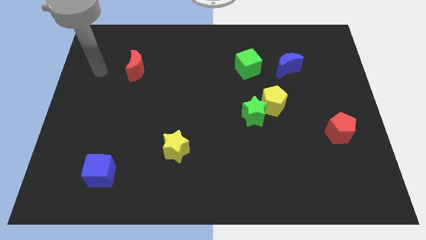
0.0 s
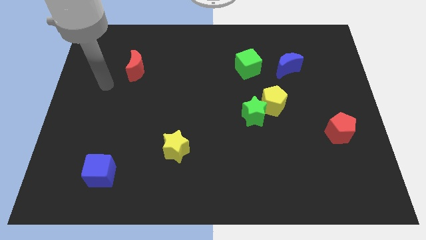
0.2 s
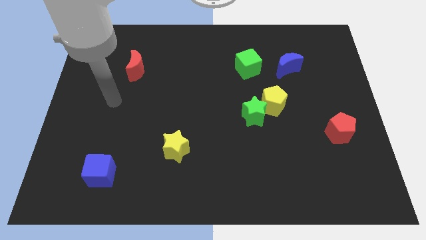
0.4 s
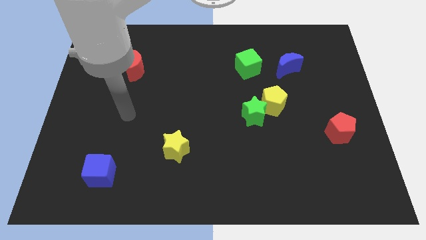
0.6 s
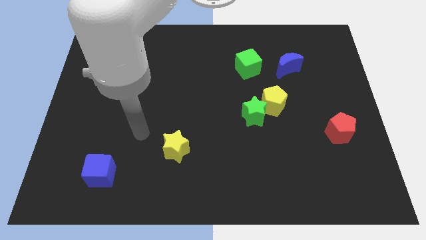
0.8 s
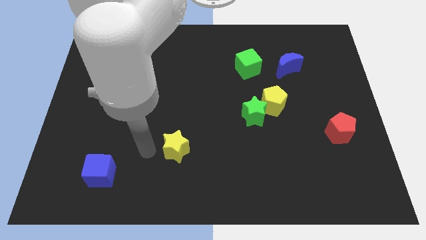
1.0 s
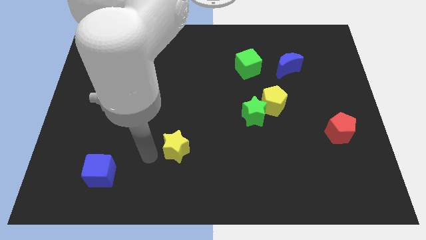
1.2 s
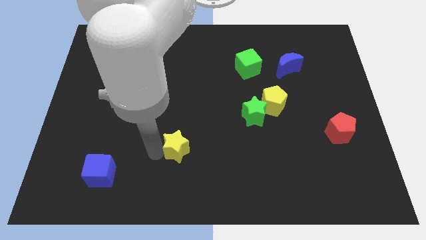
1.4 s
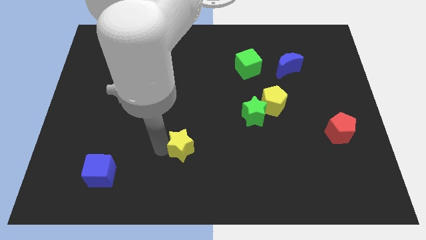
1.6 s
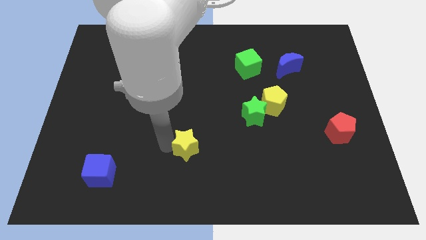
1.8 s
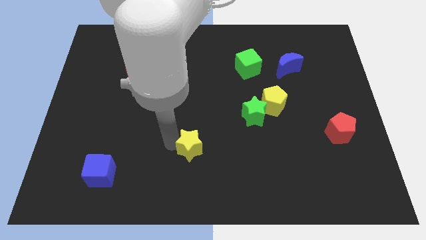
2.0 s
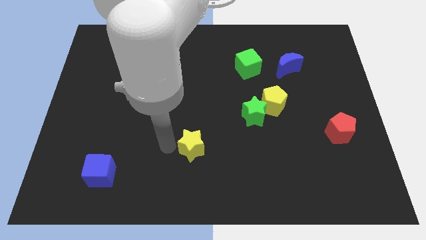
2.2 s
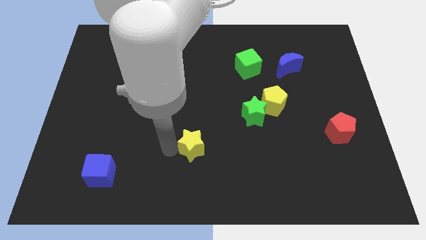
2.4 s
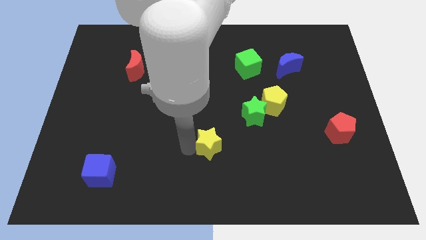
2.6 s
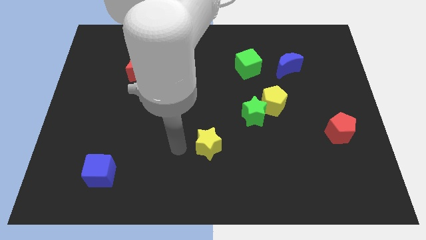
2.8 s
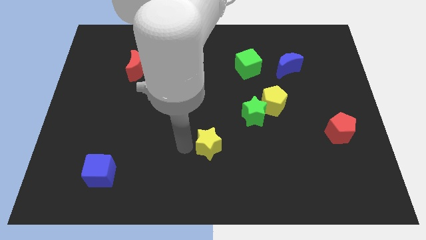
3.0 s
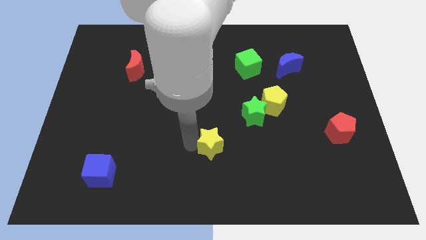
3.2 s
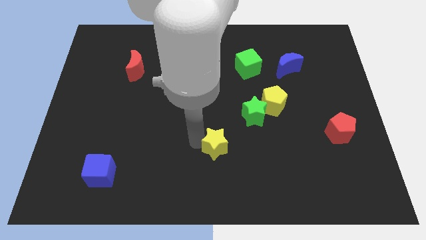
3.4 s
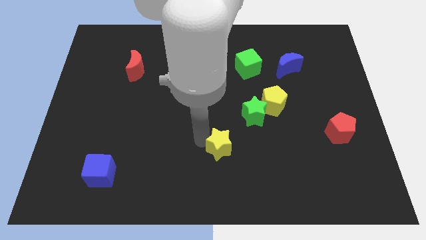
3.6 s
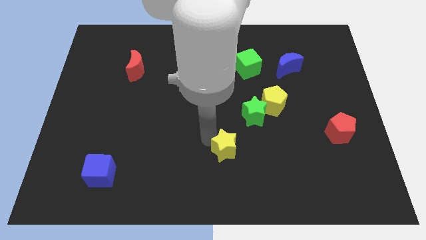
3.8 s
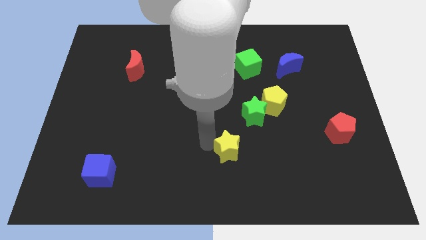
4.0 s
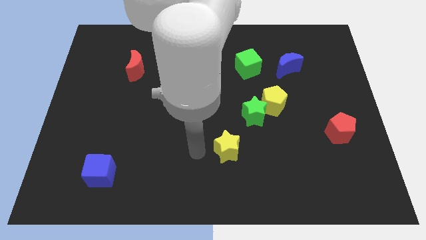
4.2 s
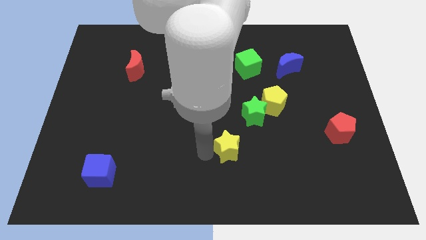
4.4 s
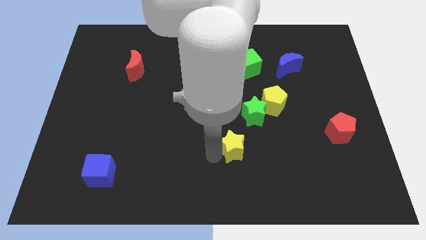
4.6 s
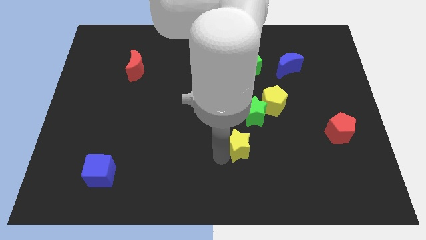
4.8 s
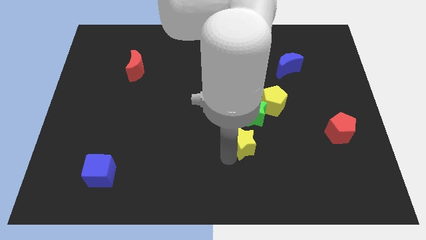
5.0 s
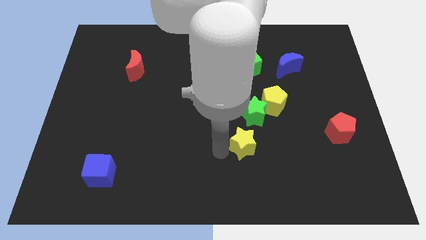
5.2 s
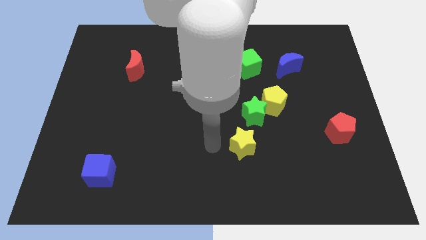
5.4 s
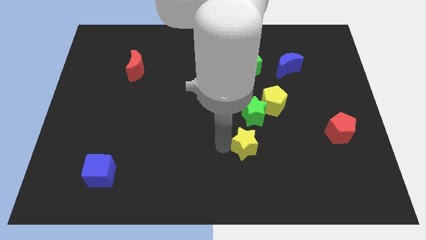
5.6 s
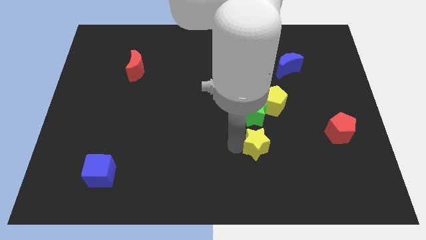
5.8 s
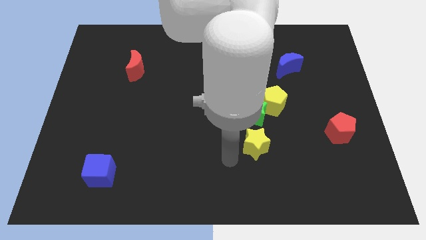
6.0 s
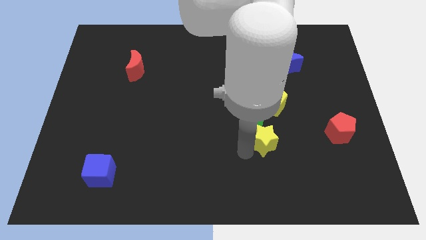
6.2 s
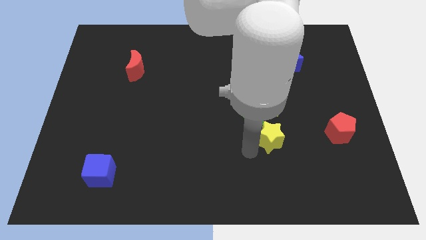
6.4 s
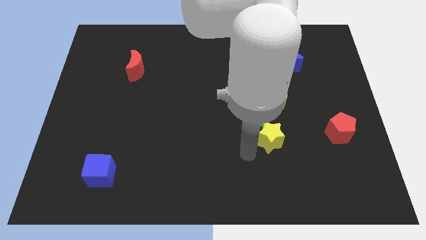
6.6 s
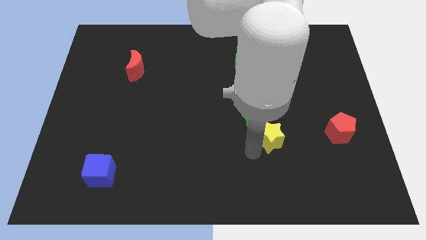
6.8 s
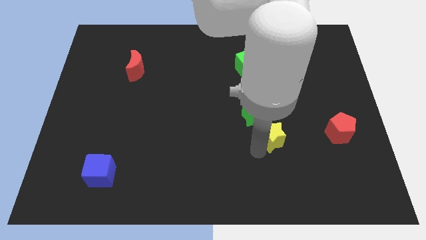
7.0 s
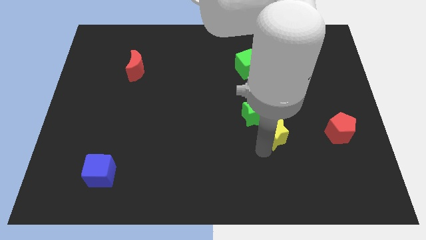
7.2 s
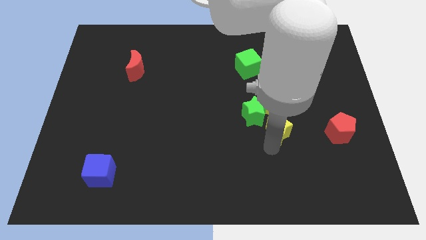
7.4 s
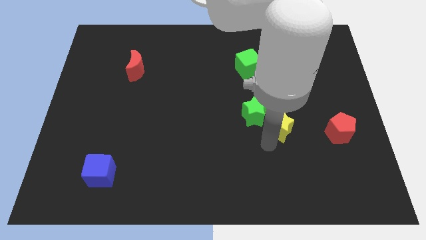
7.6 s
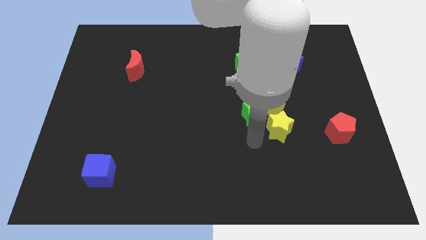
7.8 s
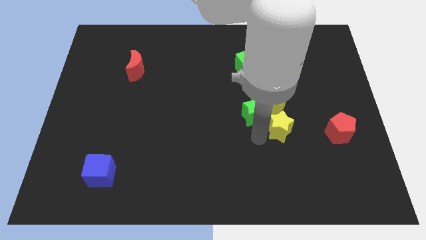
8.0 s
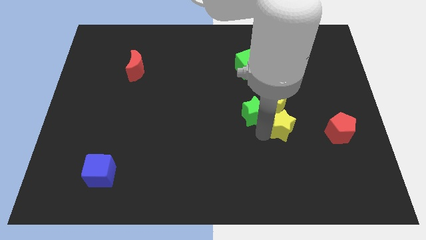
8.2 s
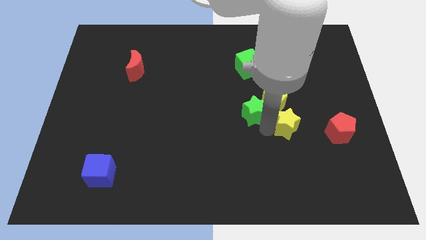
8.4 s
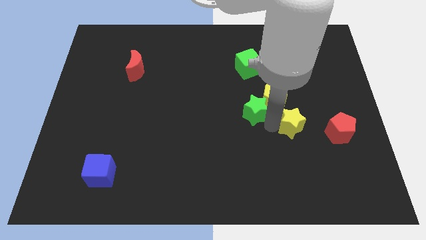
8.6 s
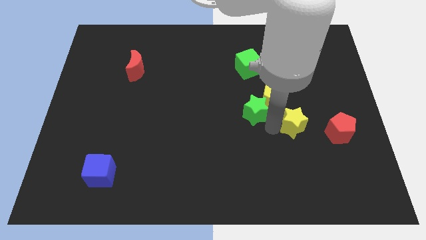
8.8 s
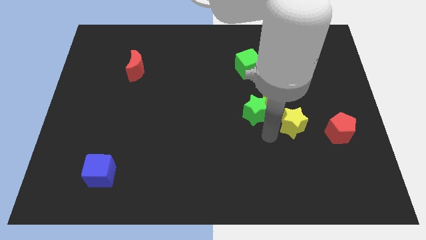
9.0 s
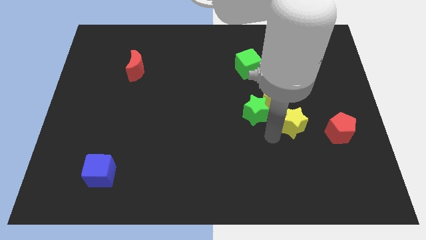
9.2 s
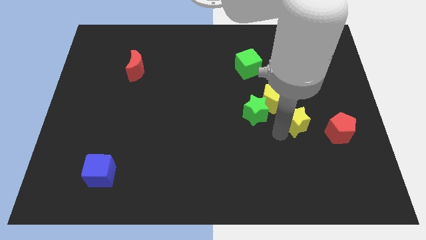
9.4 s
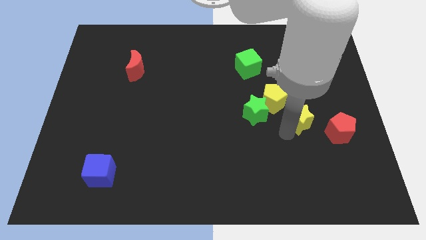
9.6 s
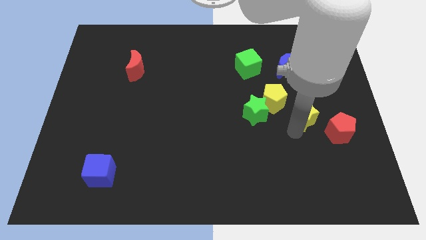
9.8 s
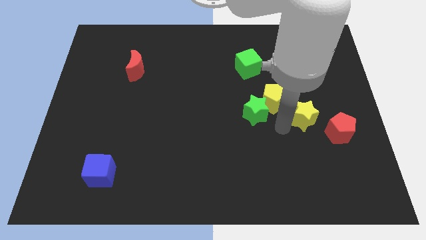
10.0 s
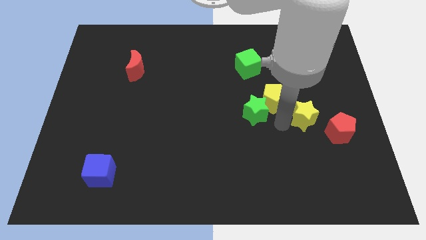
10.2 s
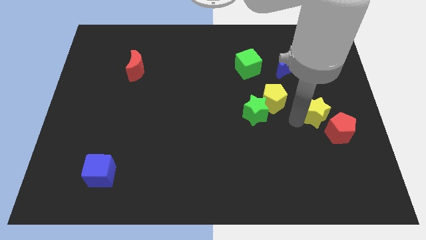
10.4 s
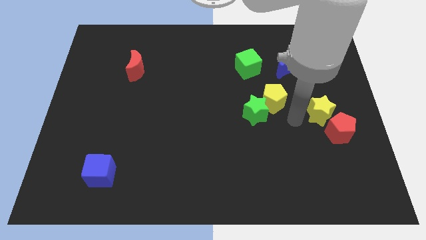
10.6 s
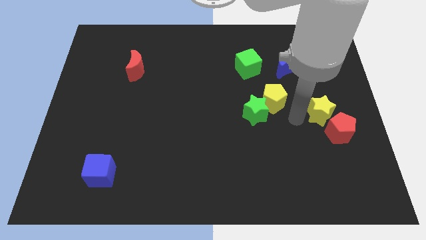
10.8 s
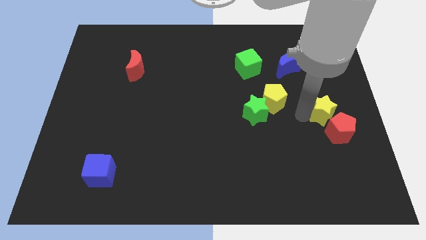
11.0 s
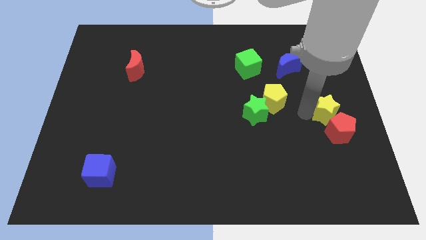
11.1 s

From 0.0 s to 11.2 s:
slide the yellow star to the center right

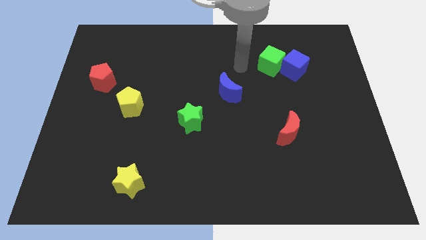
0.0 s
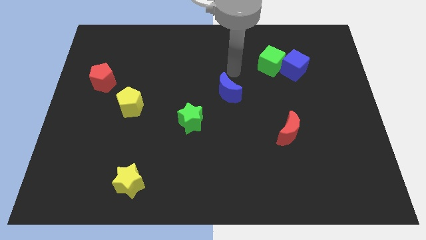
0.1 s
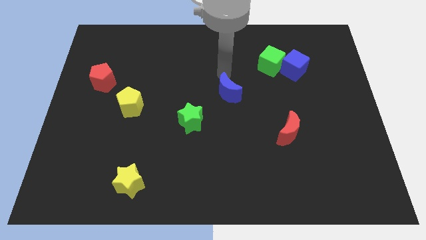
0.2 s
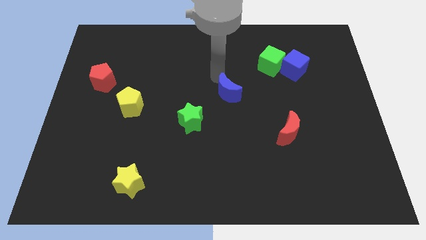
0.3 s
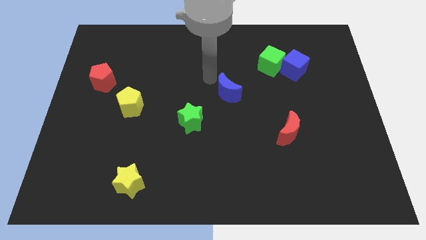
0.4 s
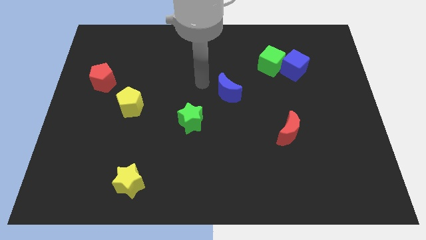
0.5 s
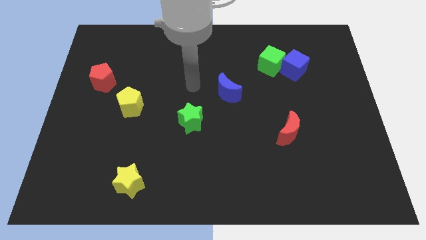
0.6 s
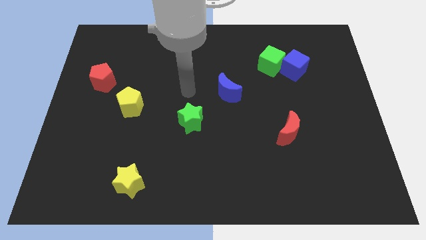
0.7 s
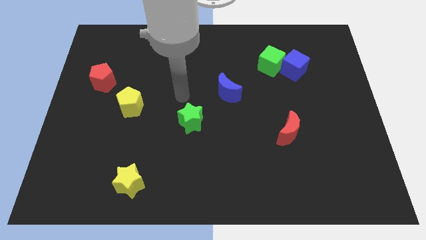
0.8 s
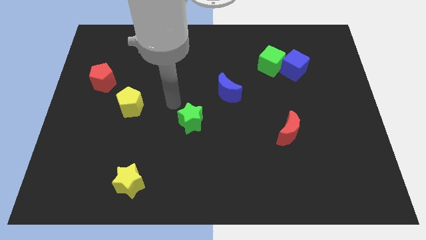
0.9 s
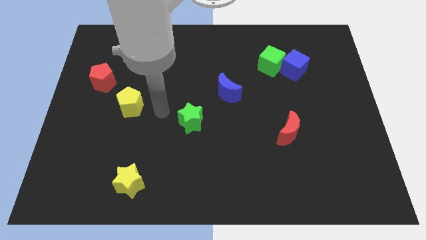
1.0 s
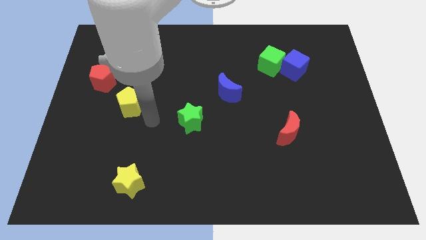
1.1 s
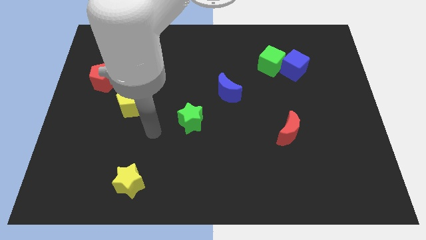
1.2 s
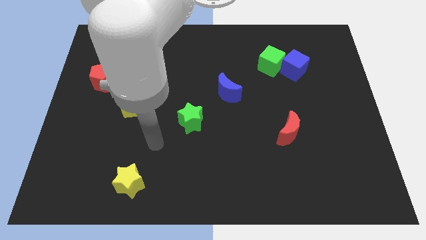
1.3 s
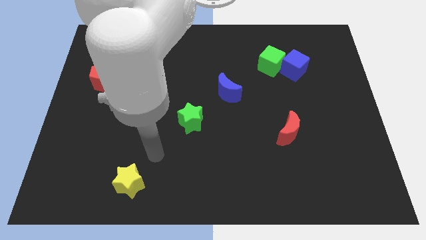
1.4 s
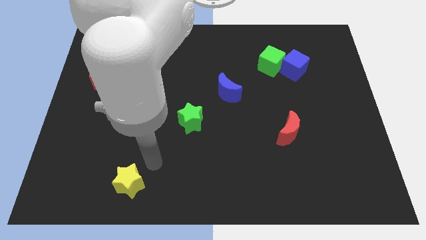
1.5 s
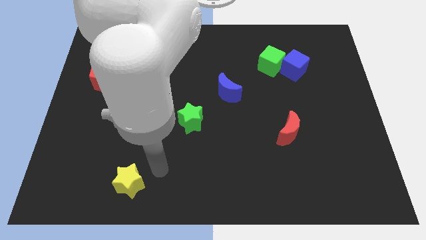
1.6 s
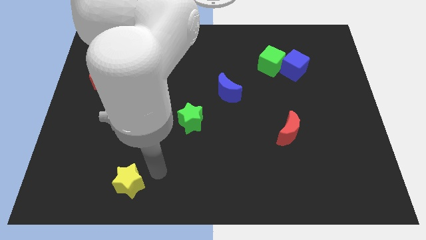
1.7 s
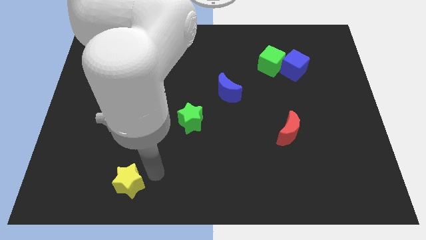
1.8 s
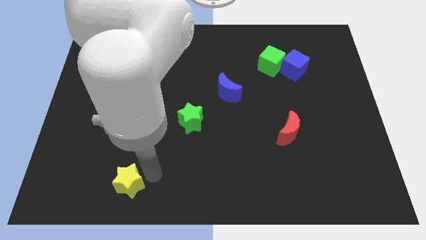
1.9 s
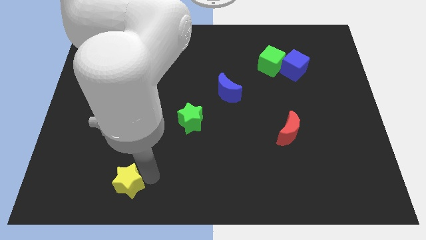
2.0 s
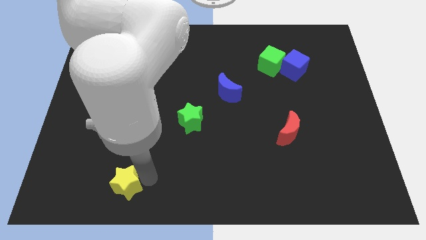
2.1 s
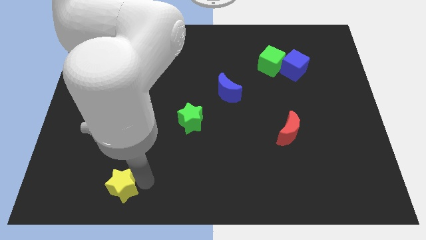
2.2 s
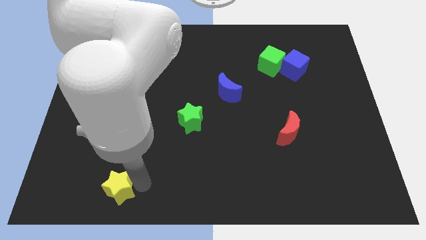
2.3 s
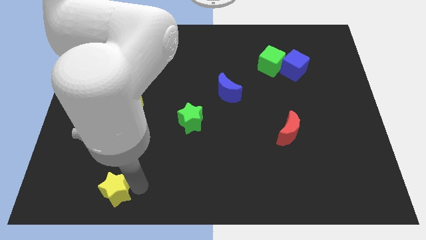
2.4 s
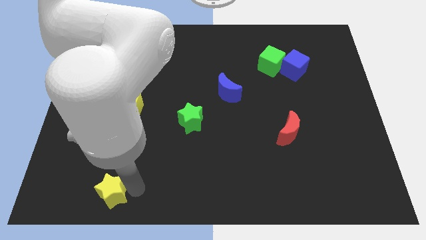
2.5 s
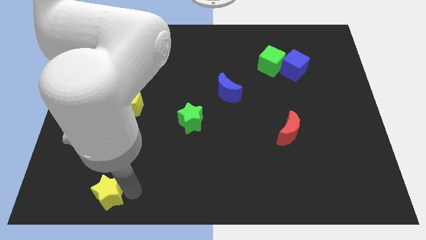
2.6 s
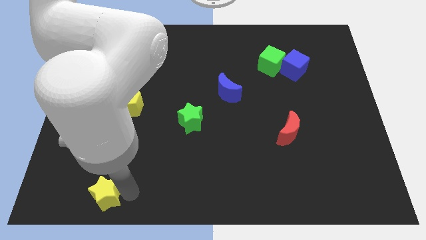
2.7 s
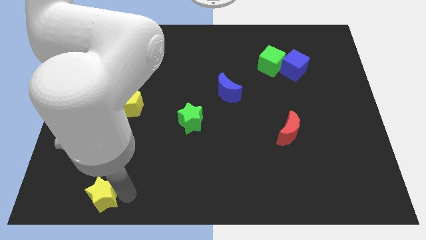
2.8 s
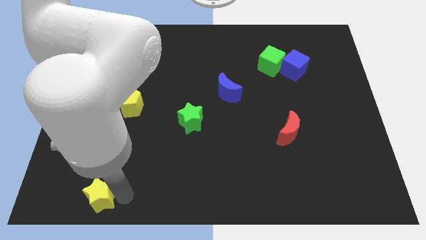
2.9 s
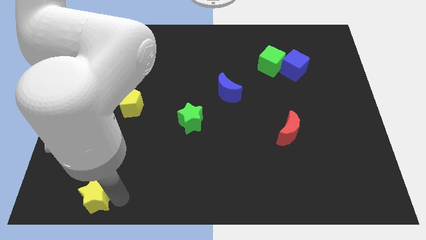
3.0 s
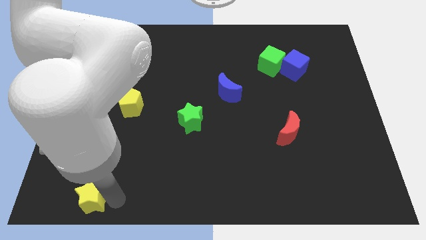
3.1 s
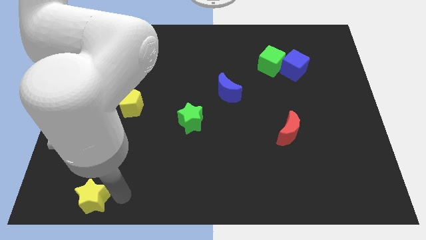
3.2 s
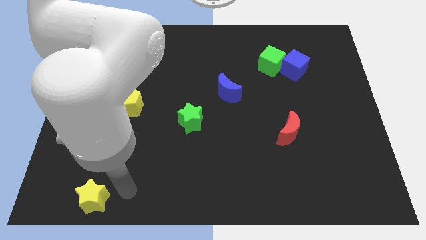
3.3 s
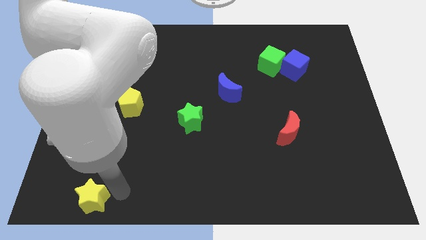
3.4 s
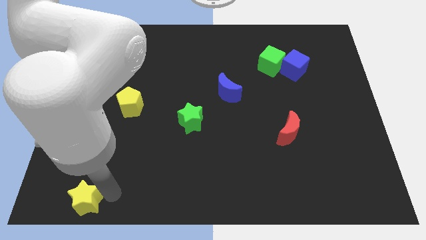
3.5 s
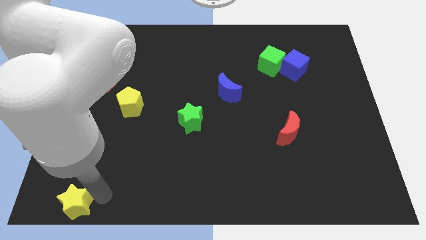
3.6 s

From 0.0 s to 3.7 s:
push the yellow star to the lower left corner
